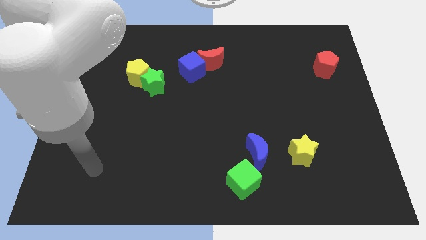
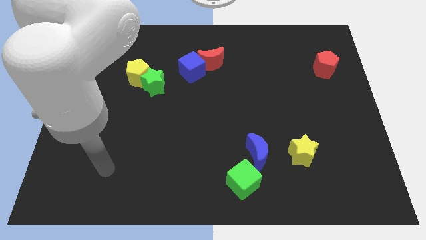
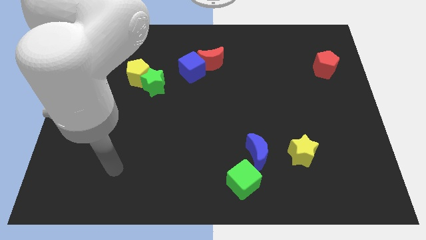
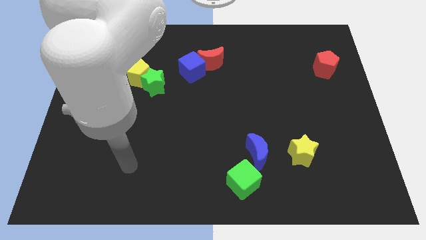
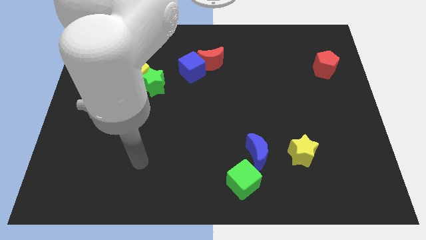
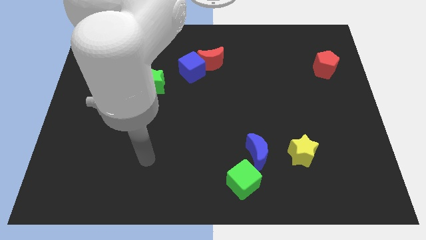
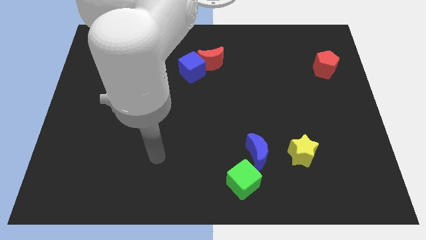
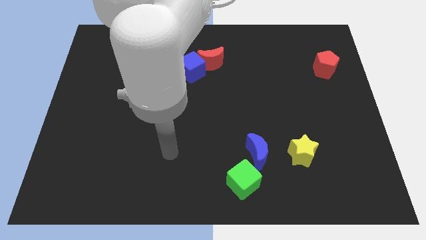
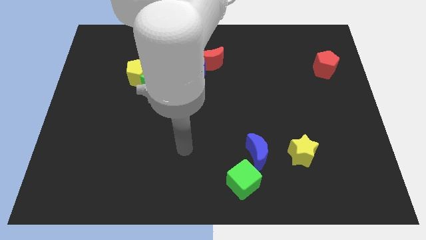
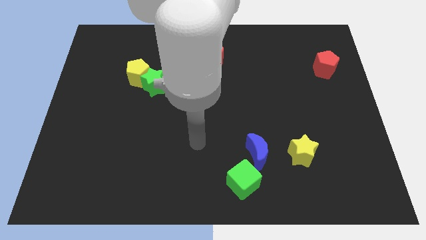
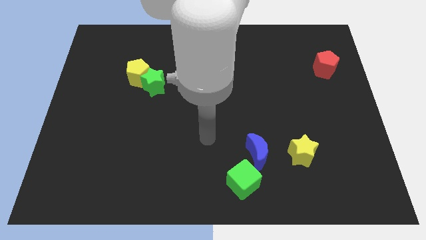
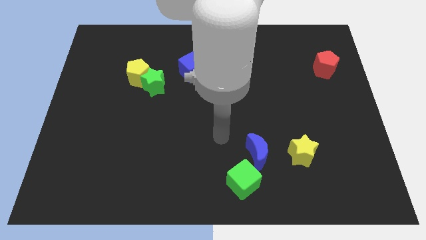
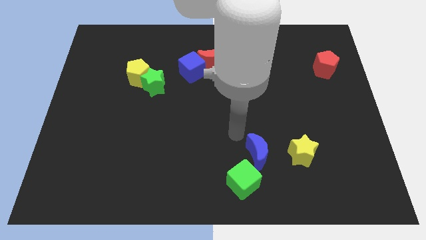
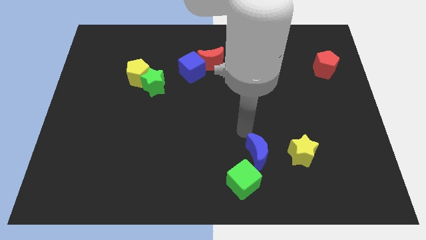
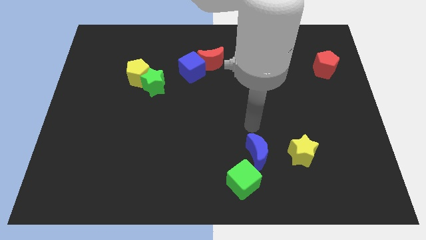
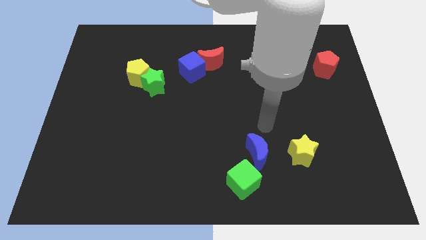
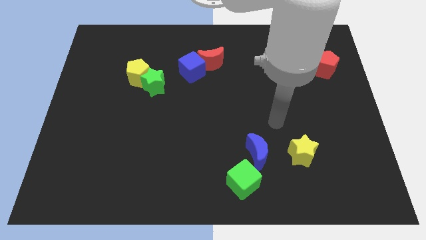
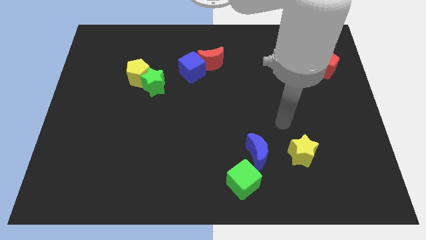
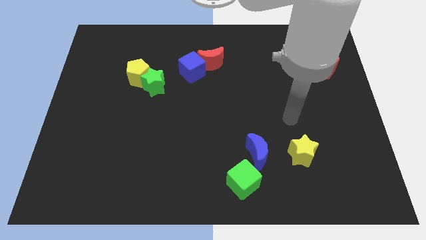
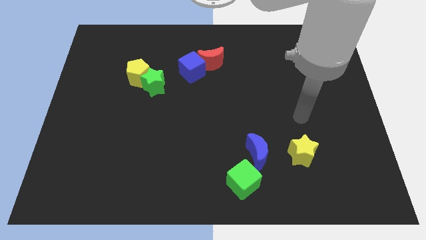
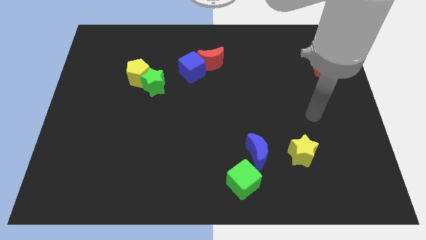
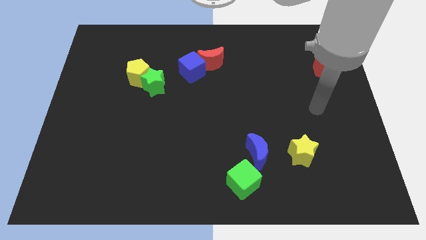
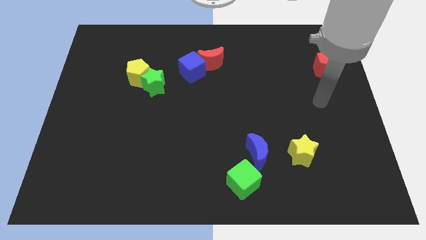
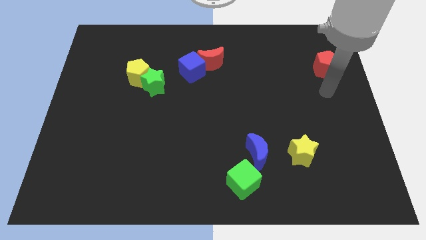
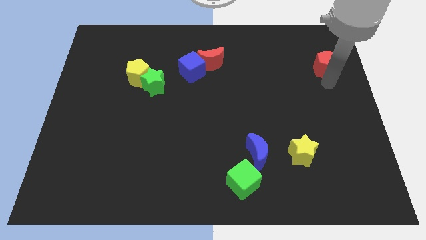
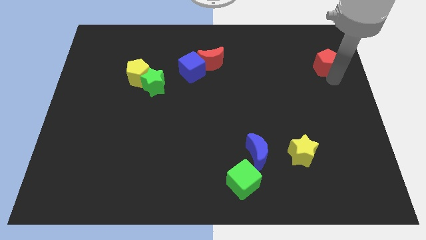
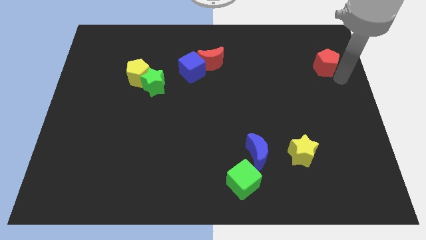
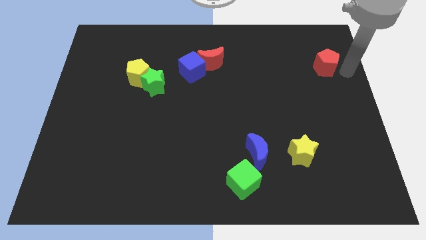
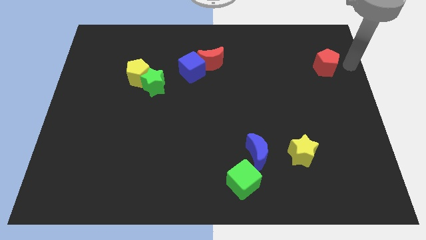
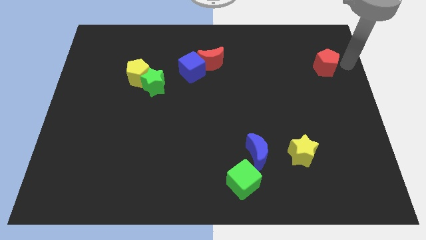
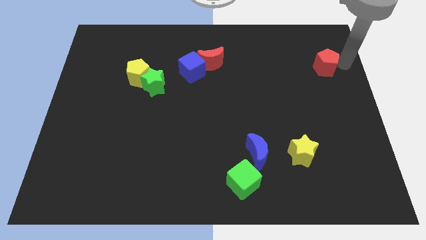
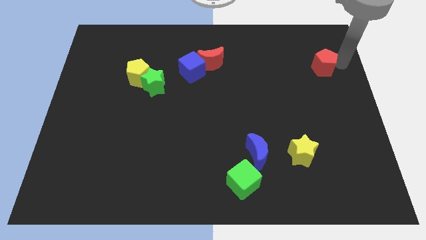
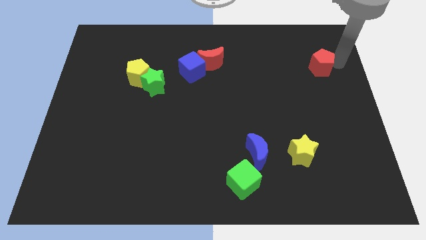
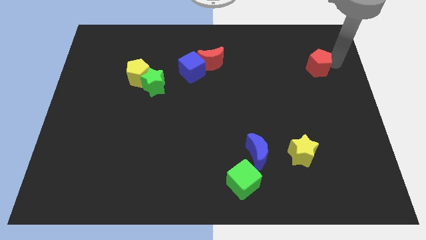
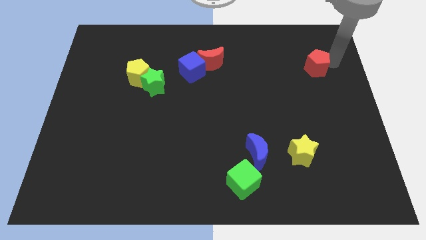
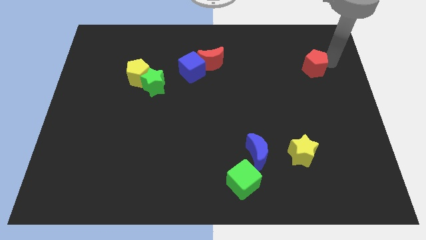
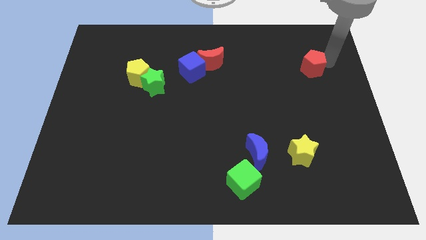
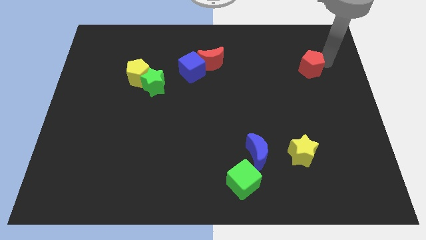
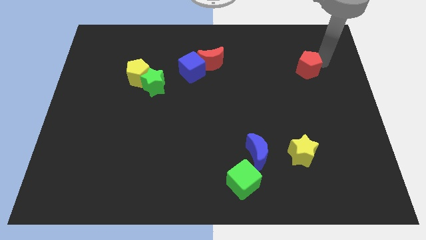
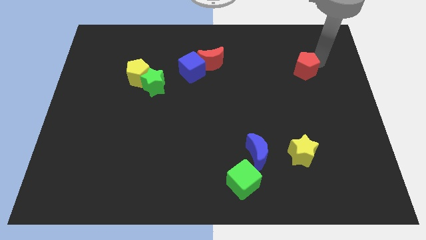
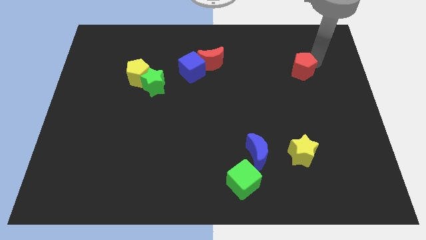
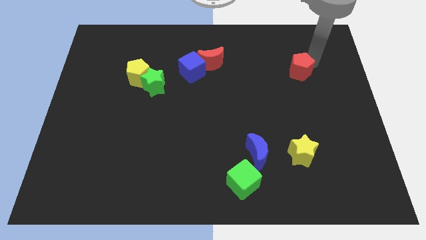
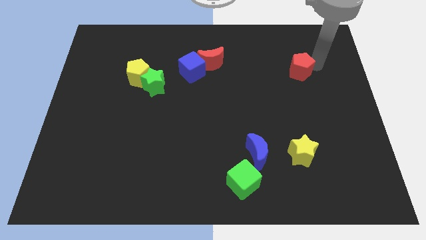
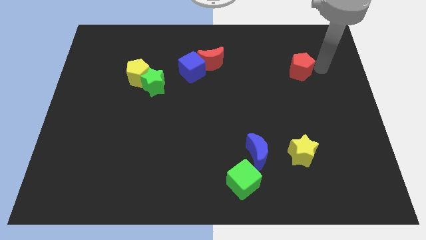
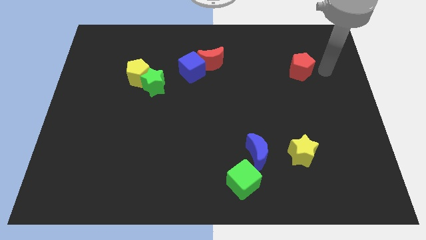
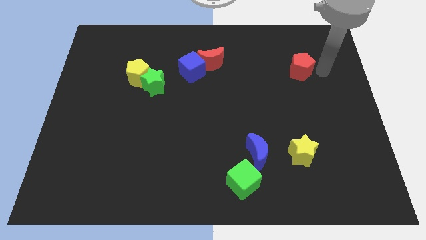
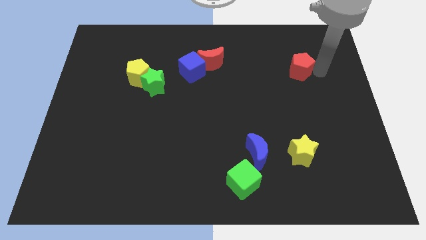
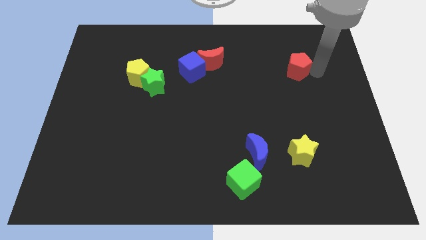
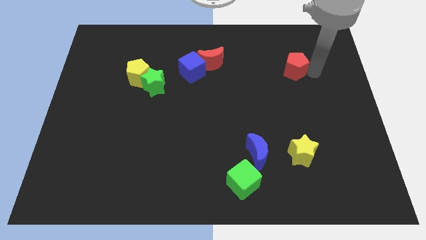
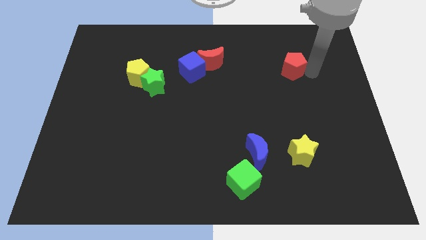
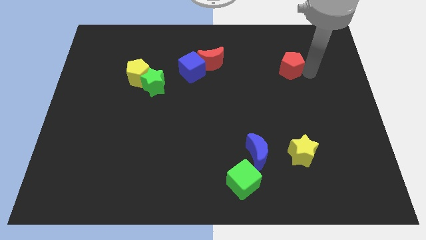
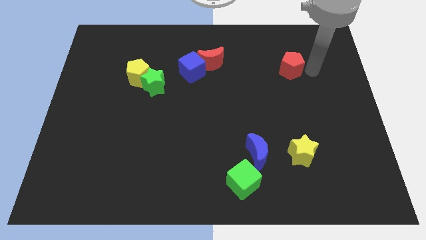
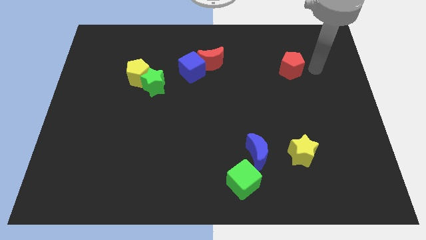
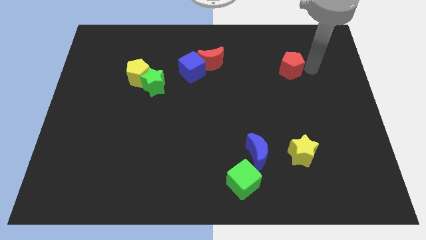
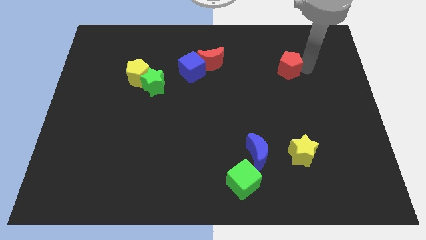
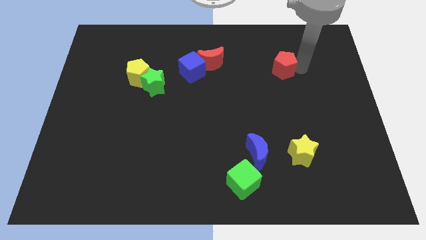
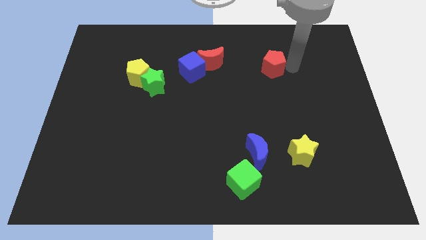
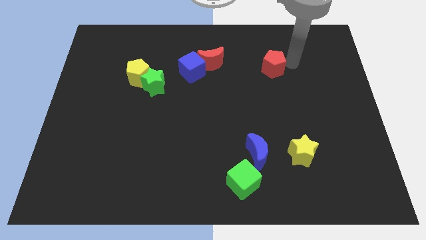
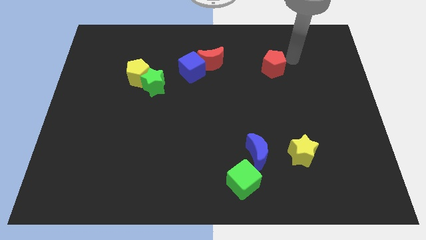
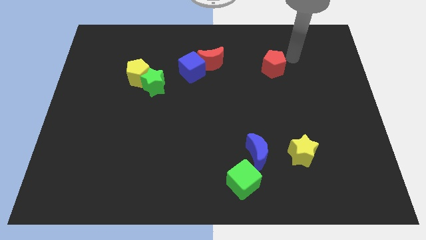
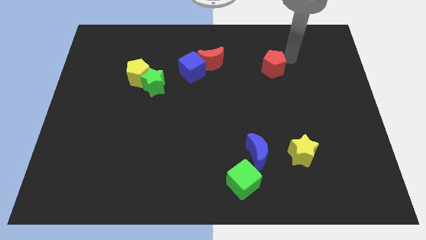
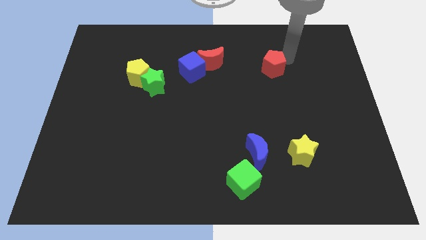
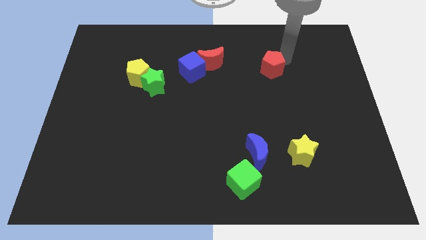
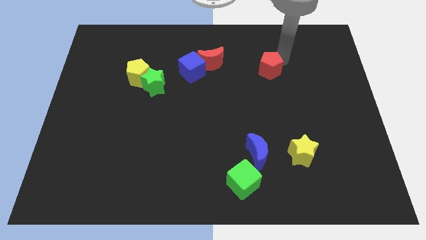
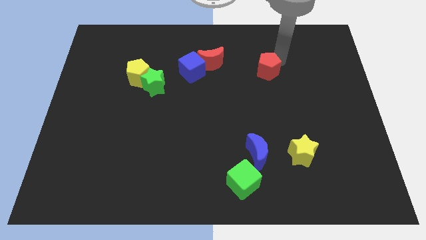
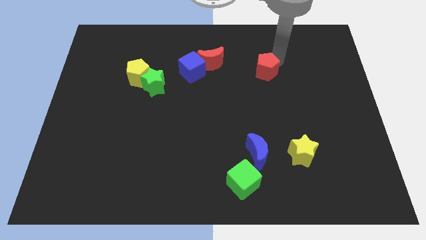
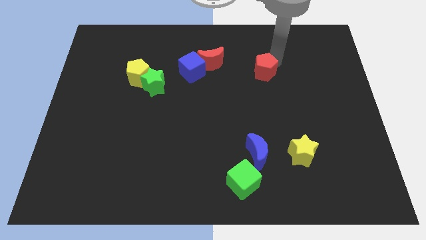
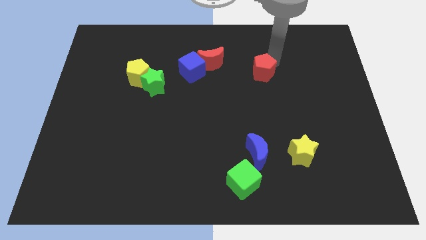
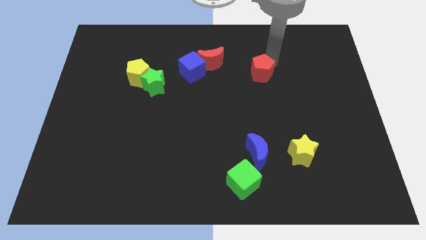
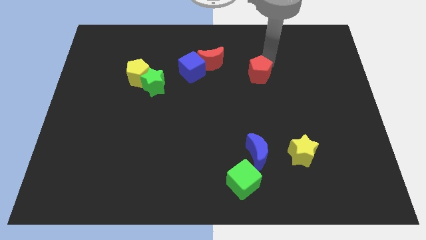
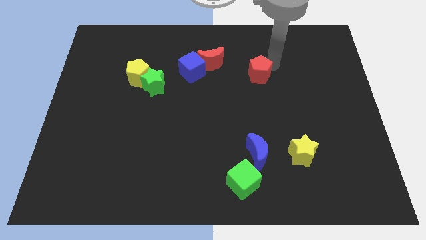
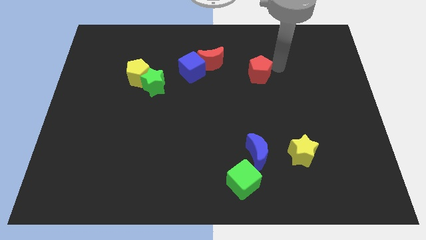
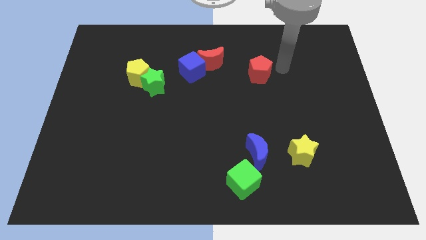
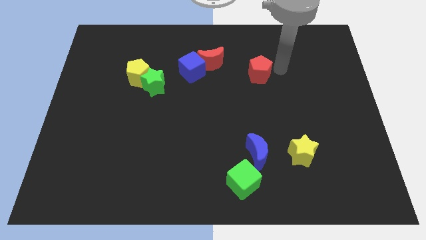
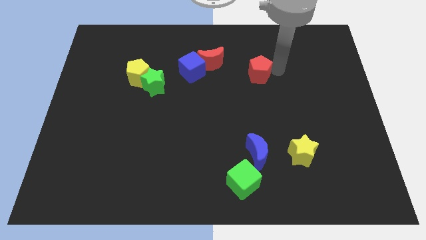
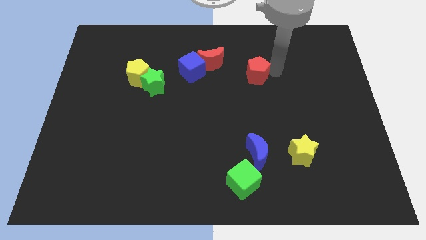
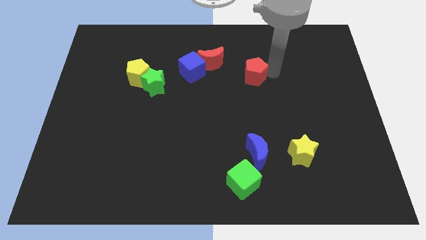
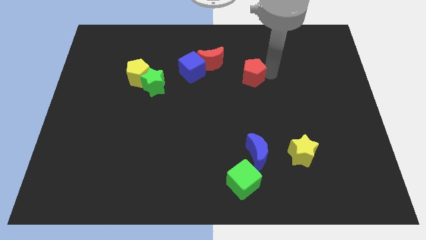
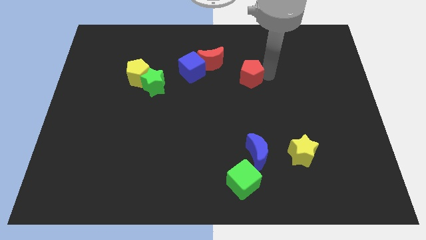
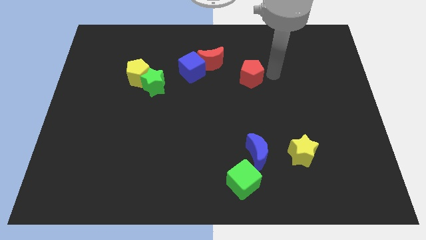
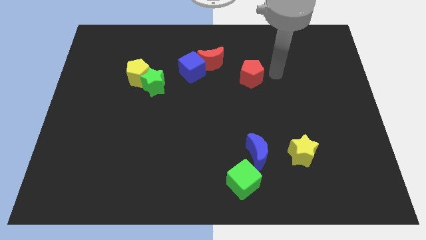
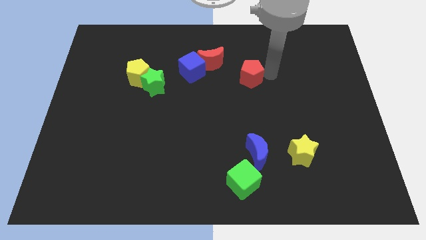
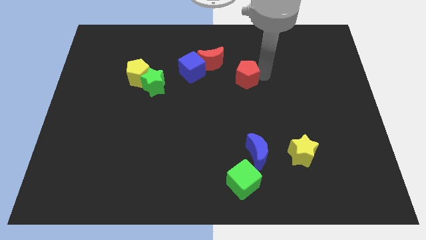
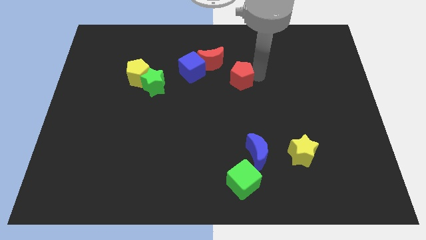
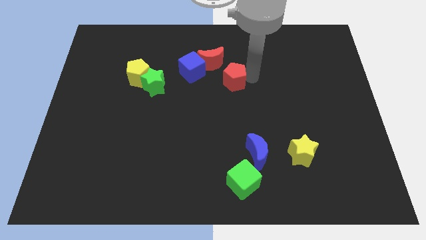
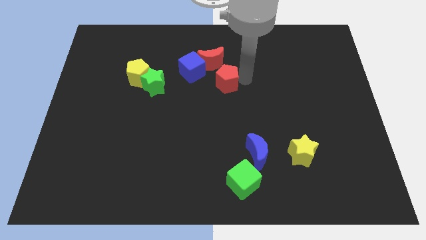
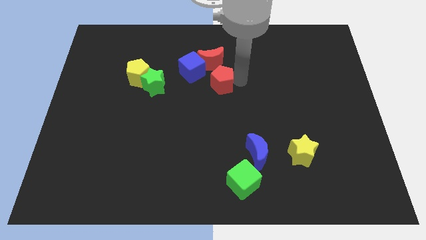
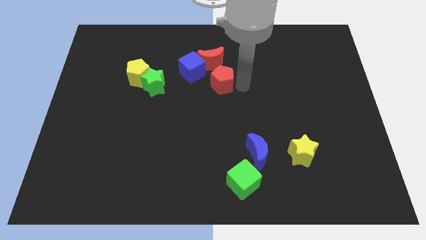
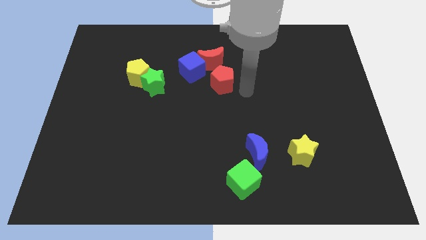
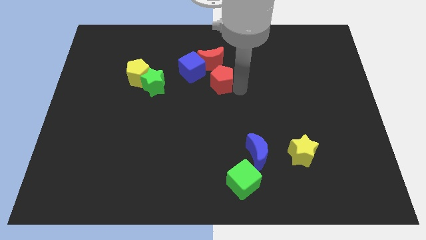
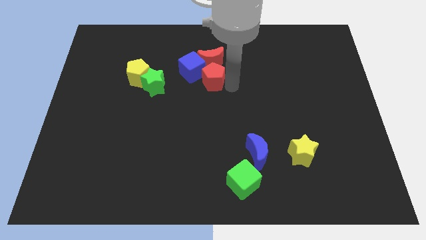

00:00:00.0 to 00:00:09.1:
put the red pentagon close to the blue cube
